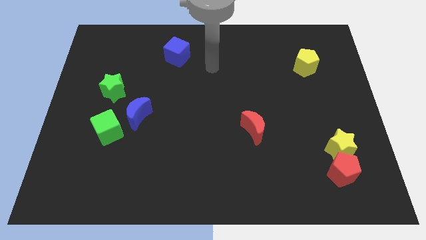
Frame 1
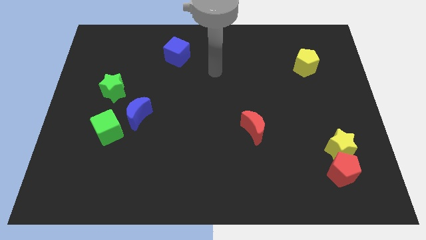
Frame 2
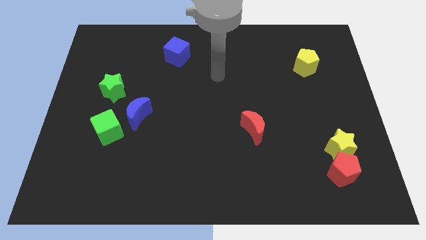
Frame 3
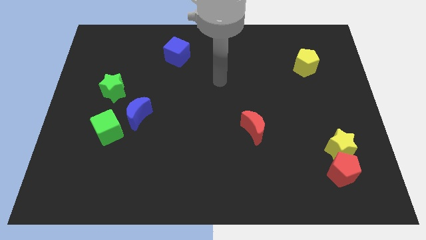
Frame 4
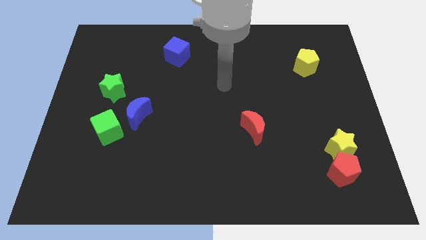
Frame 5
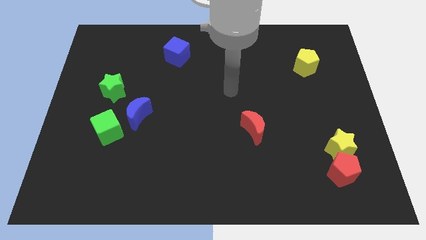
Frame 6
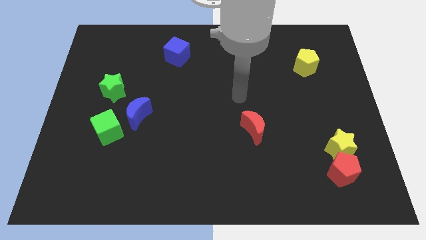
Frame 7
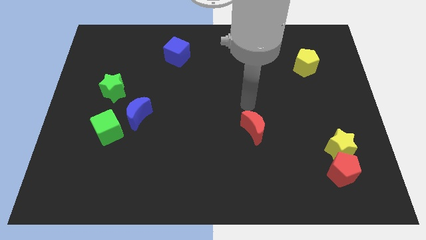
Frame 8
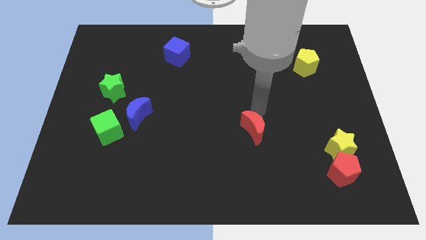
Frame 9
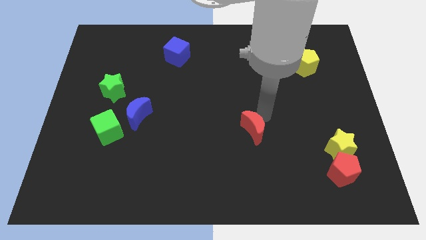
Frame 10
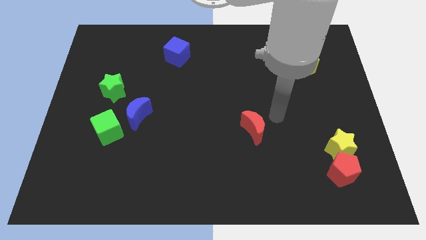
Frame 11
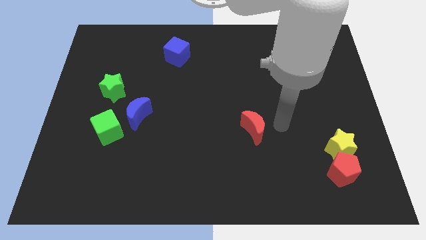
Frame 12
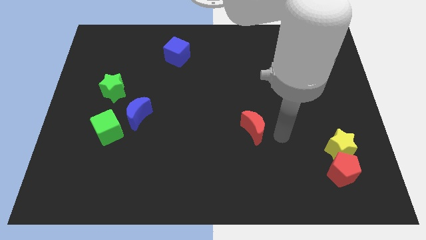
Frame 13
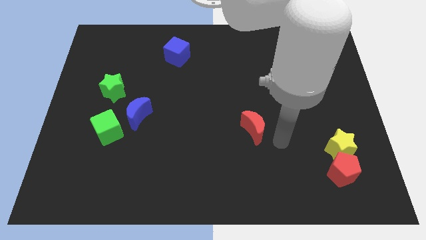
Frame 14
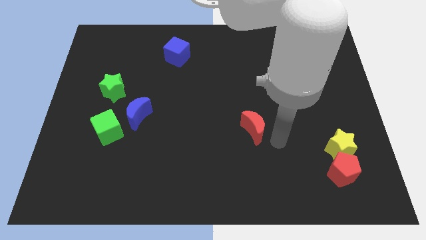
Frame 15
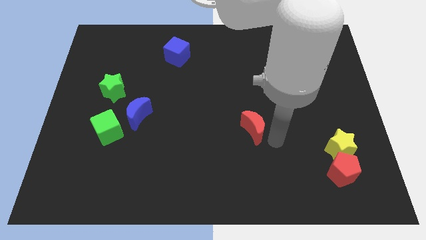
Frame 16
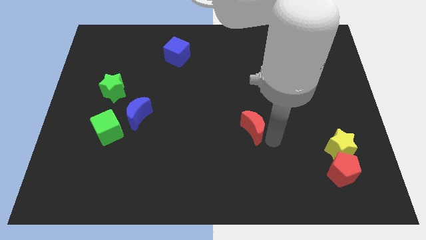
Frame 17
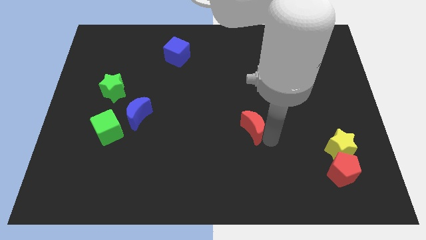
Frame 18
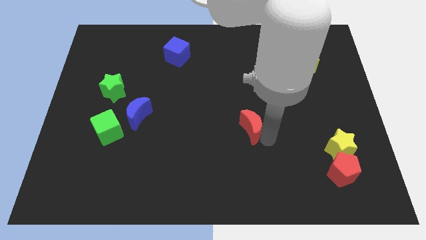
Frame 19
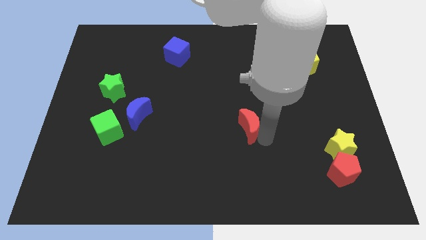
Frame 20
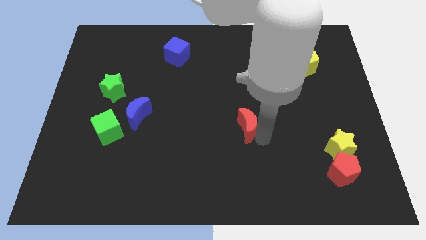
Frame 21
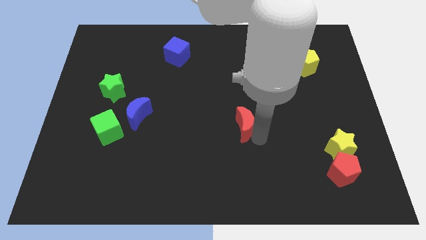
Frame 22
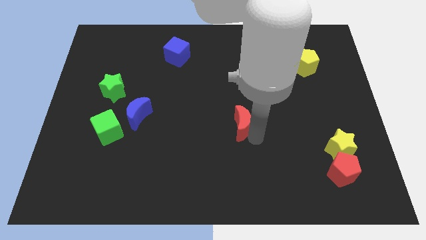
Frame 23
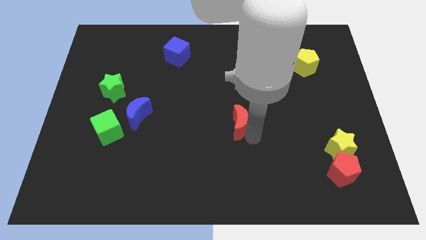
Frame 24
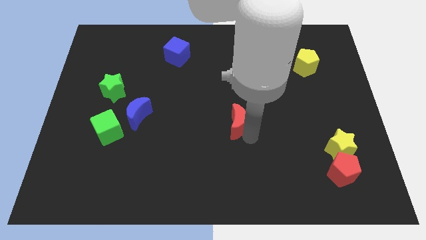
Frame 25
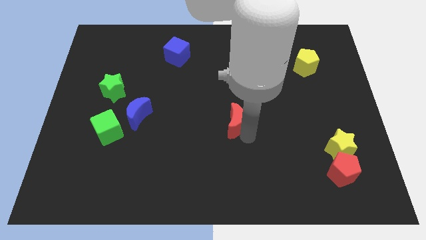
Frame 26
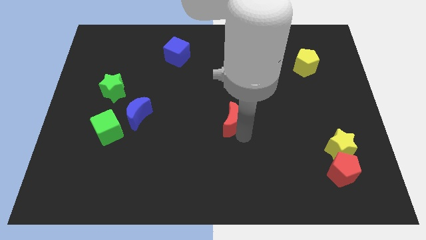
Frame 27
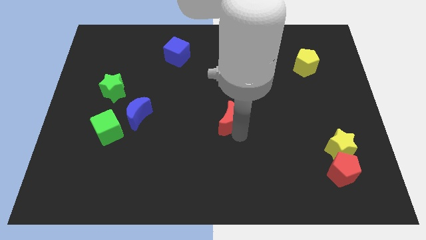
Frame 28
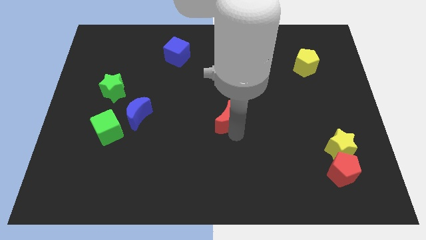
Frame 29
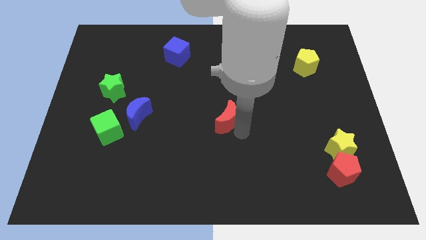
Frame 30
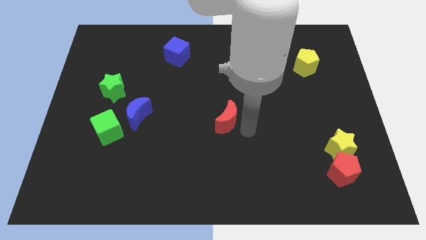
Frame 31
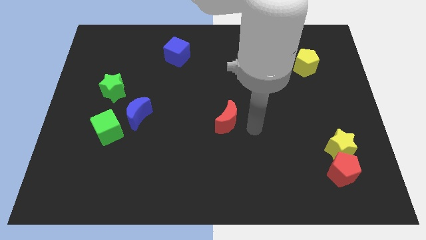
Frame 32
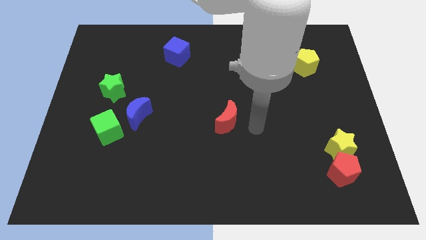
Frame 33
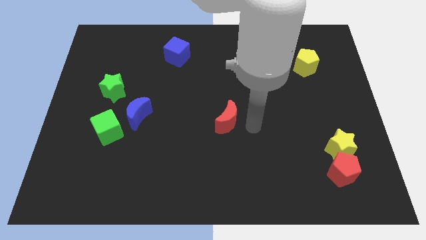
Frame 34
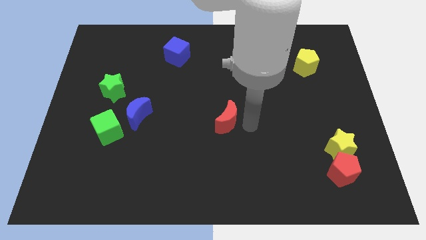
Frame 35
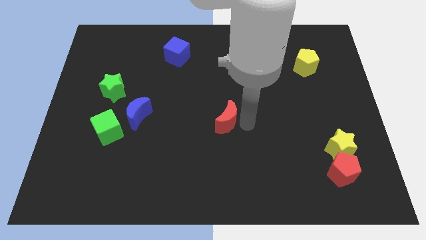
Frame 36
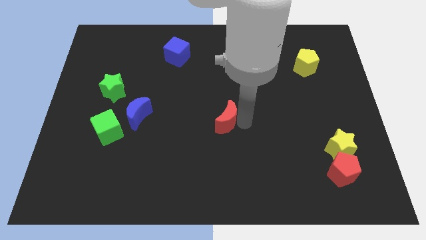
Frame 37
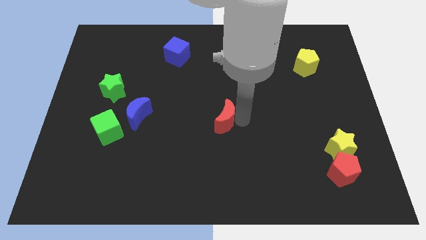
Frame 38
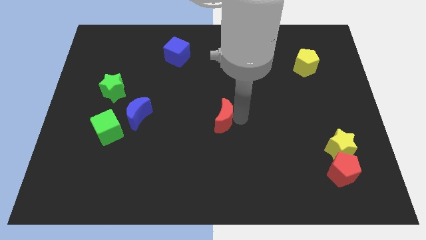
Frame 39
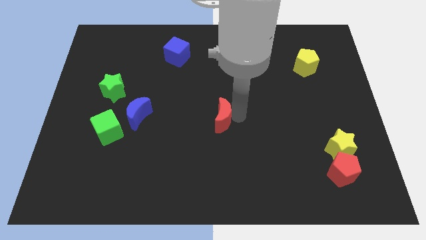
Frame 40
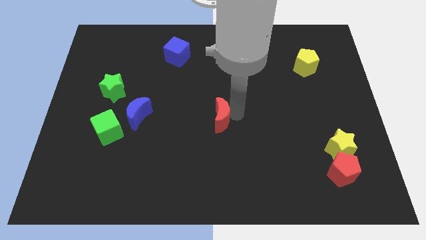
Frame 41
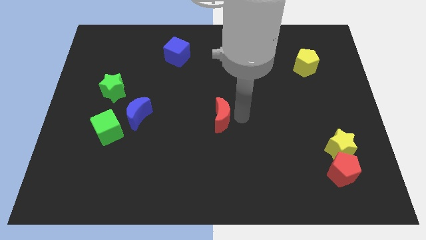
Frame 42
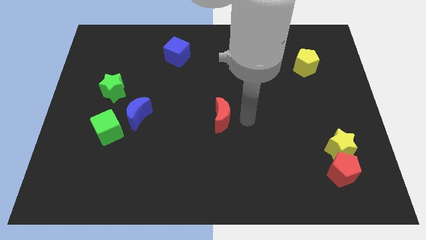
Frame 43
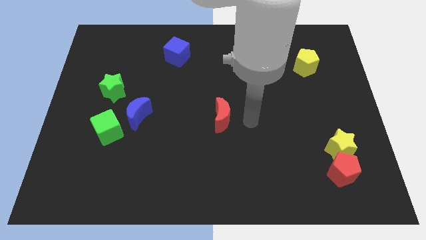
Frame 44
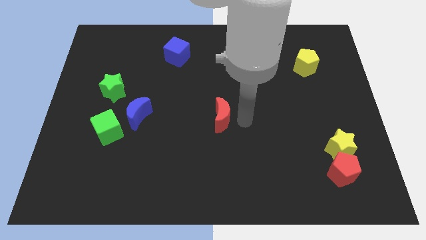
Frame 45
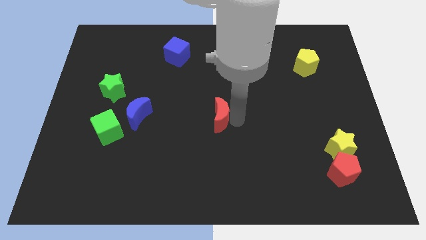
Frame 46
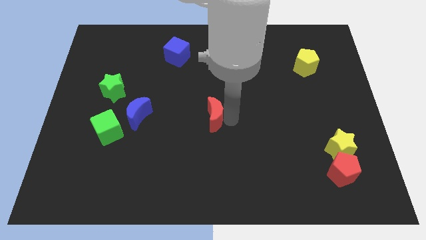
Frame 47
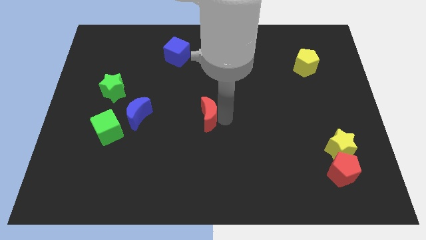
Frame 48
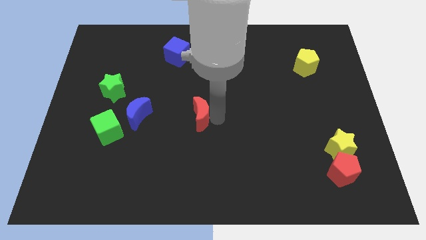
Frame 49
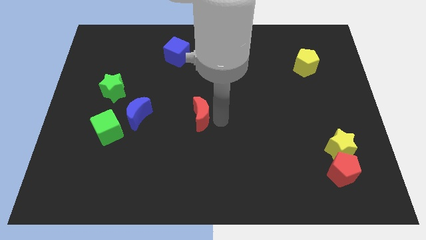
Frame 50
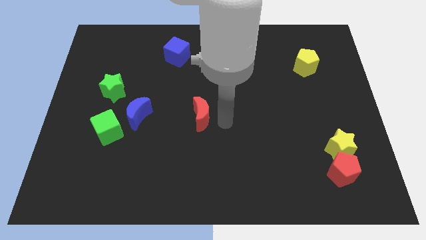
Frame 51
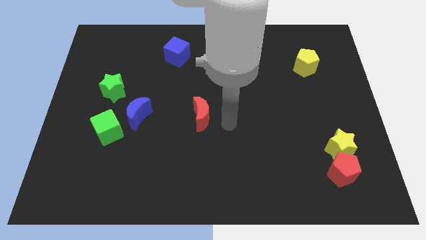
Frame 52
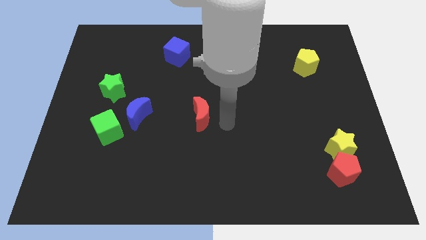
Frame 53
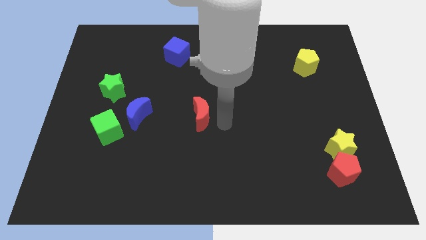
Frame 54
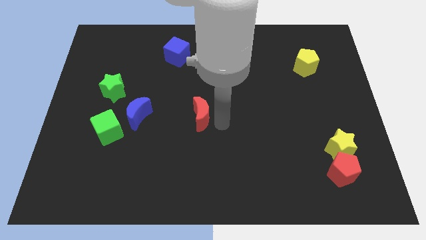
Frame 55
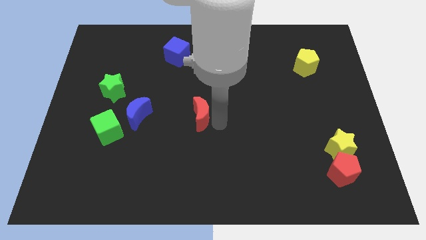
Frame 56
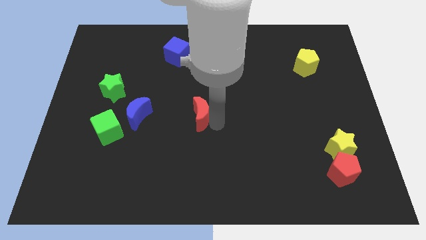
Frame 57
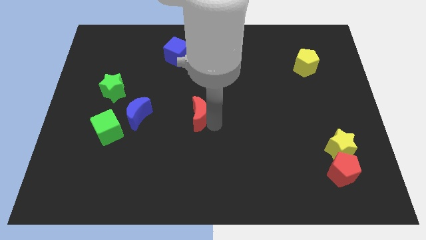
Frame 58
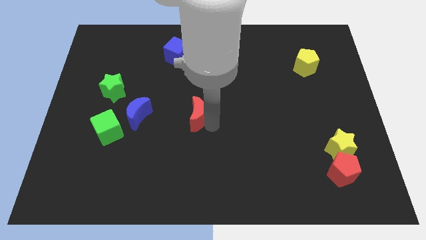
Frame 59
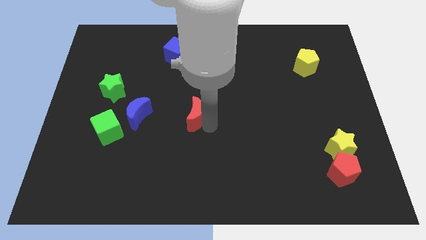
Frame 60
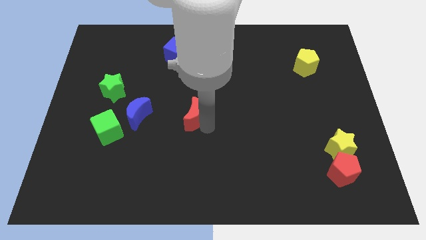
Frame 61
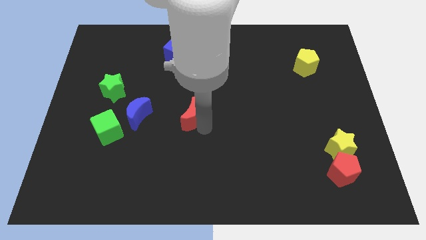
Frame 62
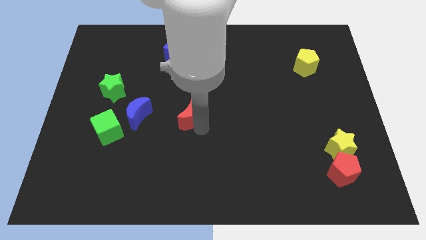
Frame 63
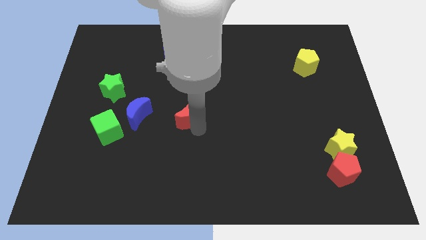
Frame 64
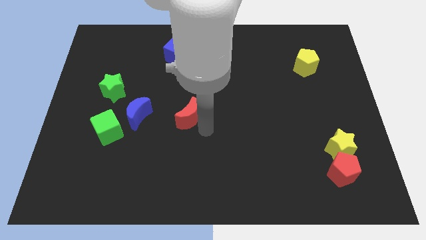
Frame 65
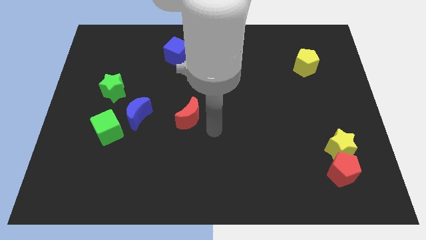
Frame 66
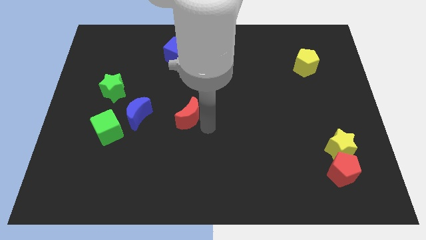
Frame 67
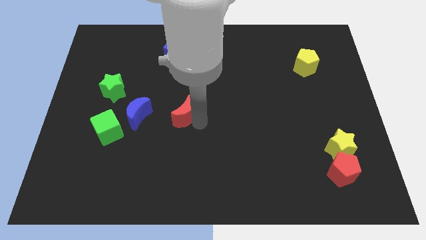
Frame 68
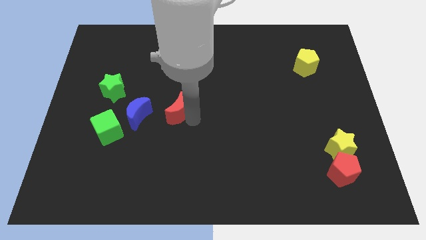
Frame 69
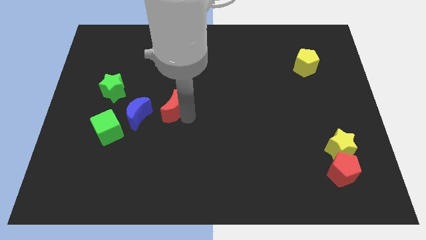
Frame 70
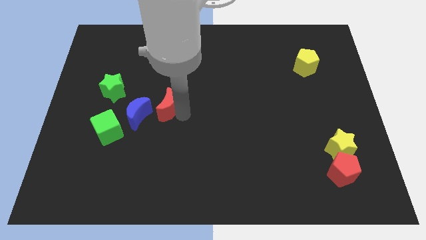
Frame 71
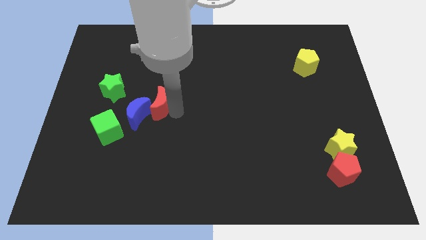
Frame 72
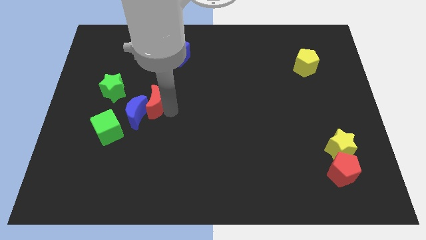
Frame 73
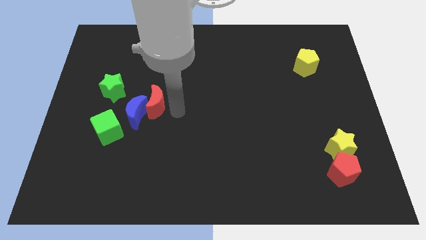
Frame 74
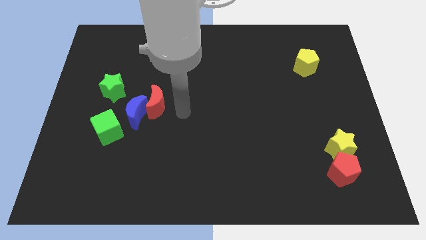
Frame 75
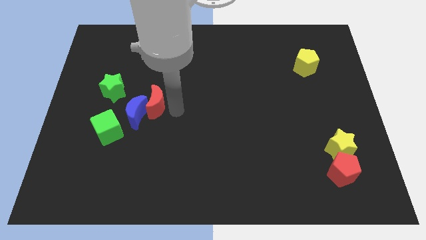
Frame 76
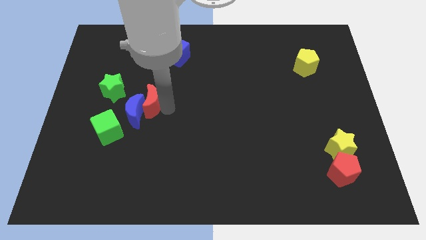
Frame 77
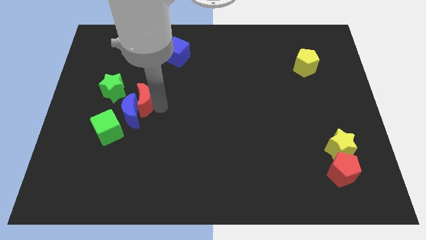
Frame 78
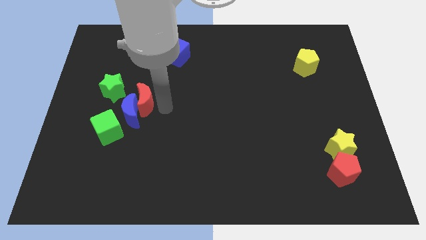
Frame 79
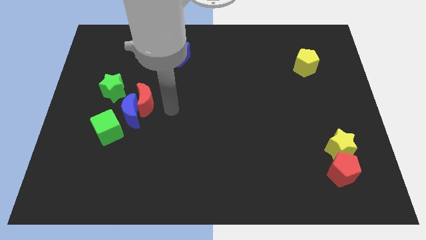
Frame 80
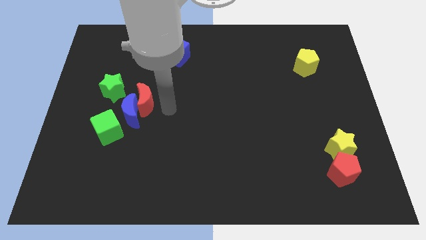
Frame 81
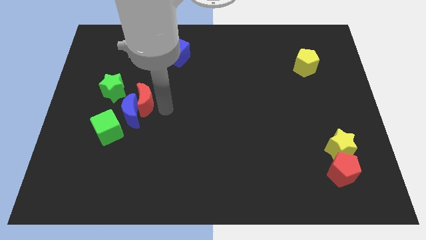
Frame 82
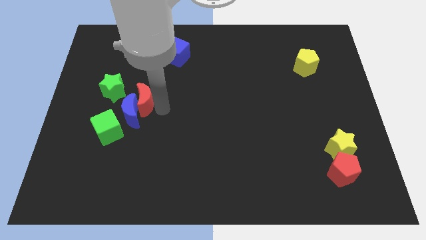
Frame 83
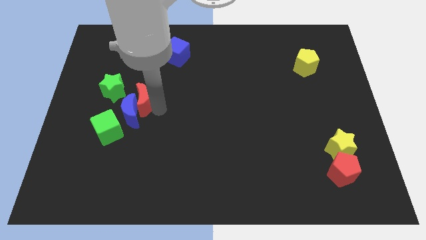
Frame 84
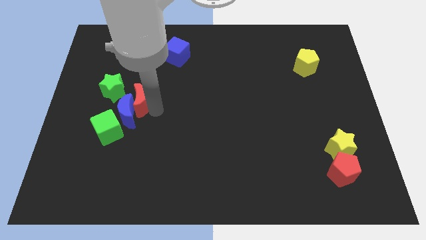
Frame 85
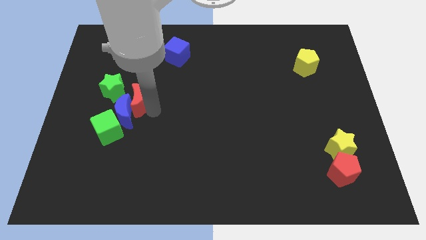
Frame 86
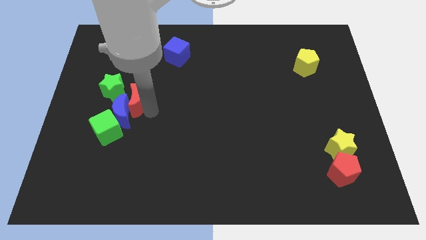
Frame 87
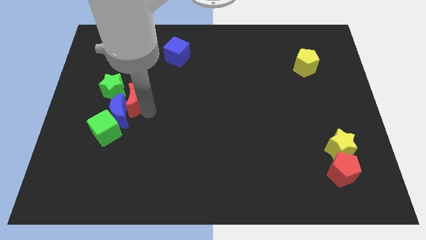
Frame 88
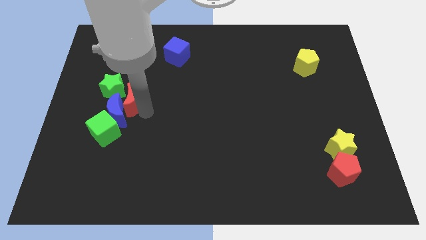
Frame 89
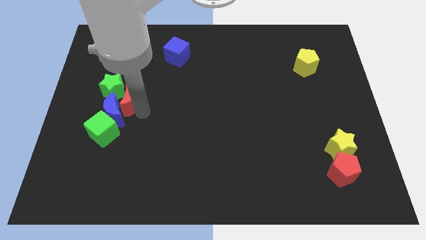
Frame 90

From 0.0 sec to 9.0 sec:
slide the red moon to the green star
